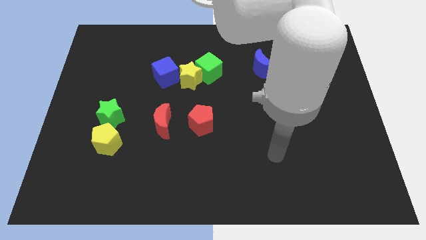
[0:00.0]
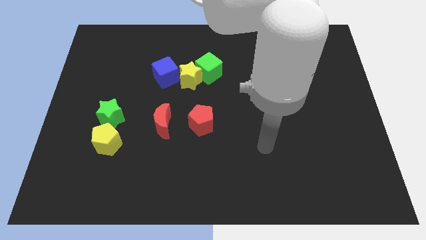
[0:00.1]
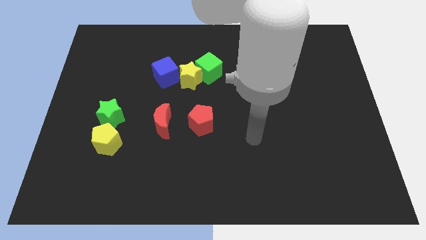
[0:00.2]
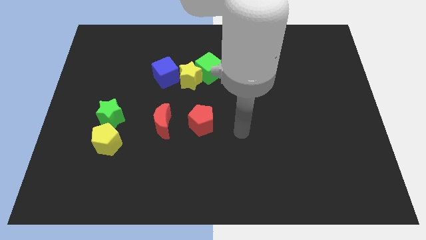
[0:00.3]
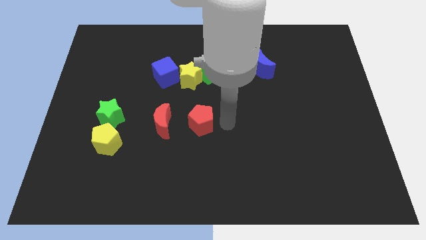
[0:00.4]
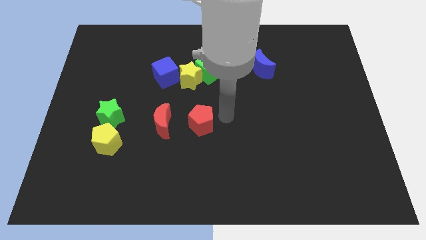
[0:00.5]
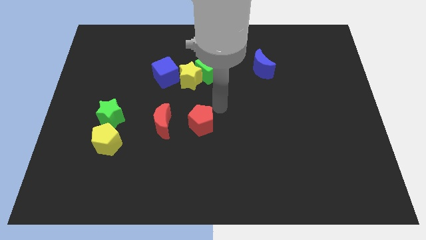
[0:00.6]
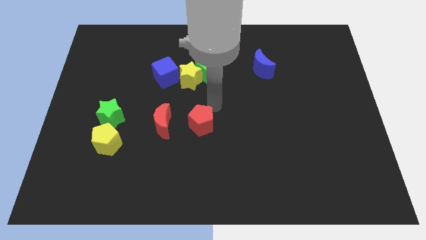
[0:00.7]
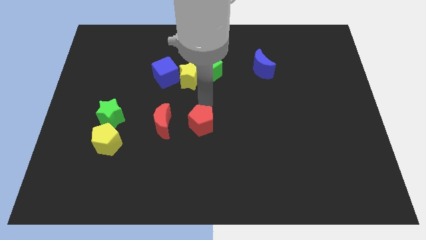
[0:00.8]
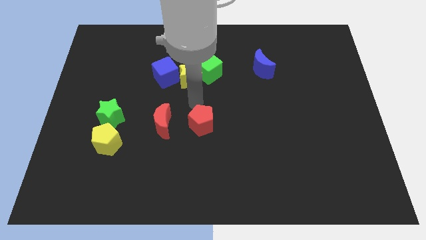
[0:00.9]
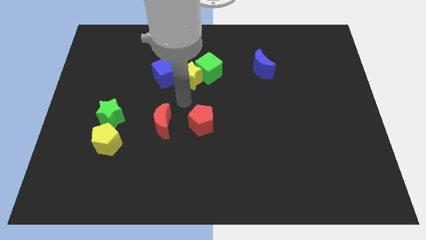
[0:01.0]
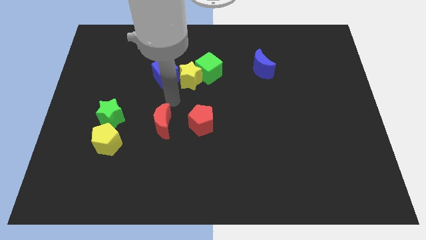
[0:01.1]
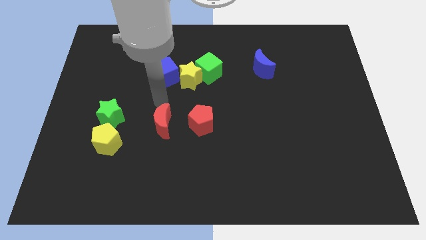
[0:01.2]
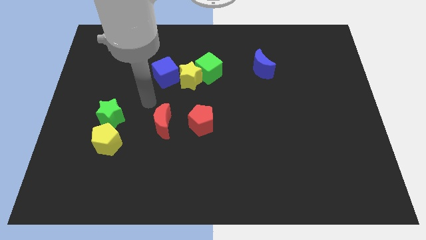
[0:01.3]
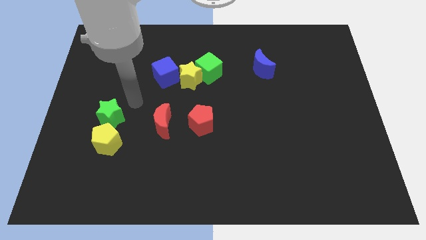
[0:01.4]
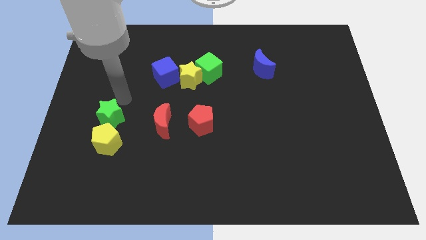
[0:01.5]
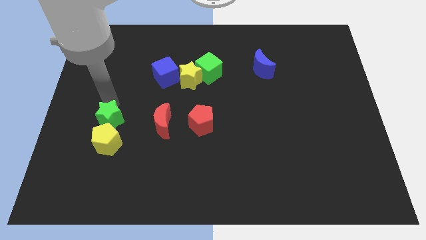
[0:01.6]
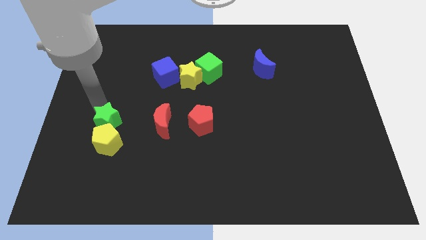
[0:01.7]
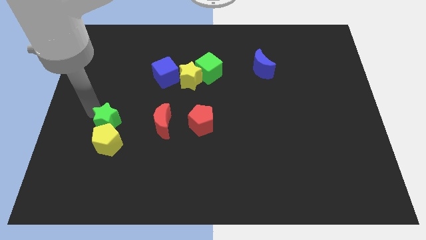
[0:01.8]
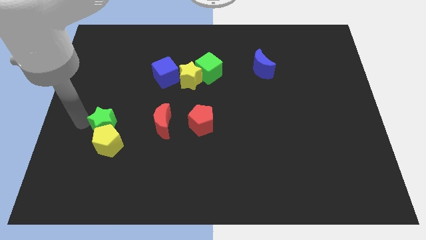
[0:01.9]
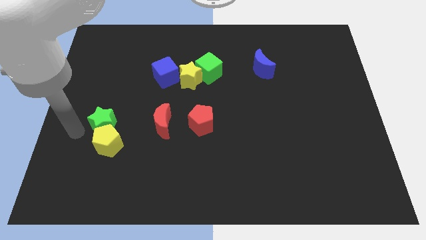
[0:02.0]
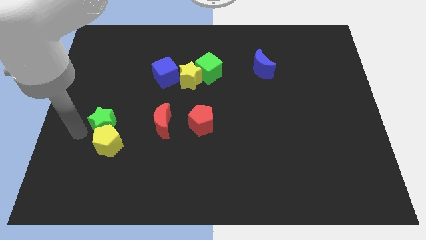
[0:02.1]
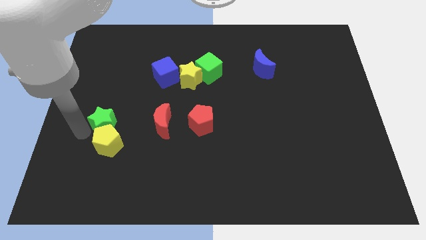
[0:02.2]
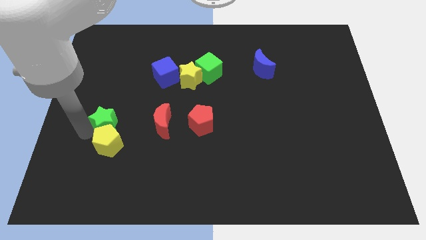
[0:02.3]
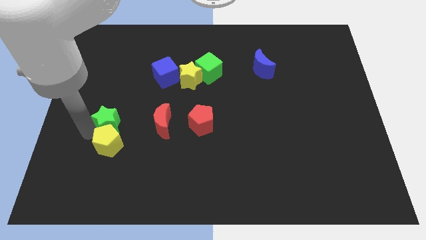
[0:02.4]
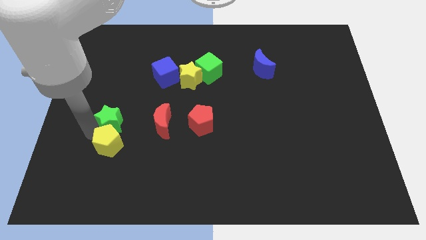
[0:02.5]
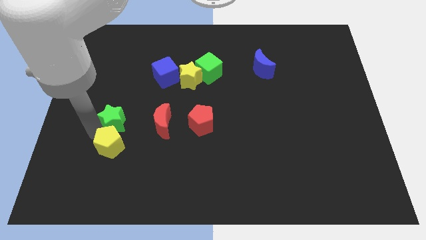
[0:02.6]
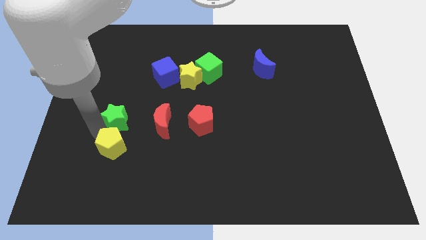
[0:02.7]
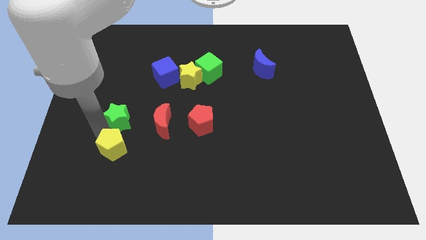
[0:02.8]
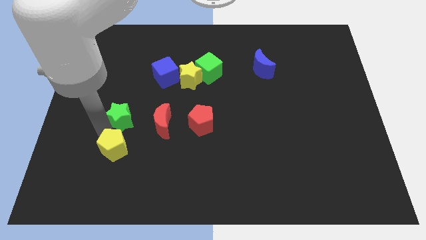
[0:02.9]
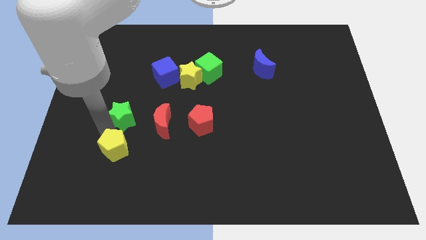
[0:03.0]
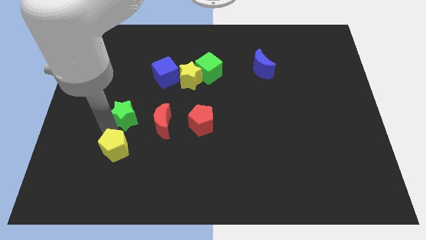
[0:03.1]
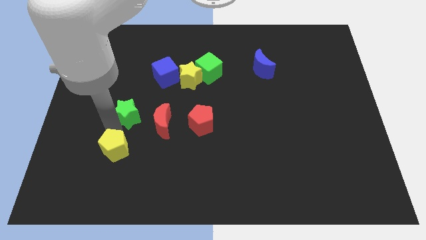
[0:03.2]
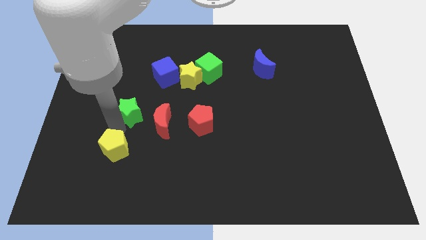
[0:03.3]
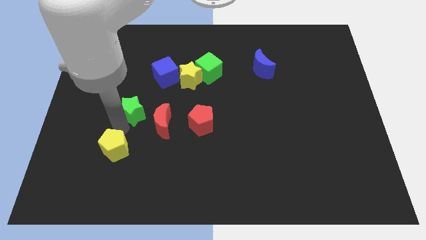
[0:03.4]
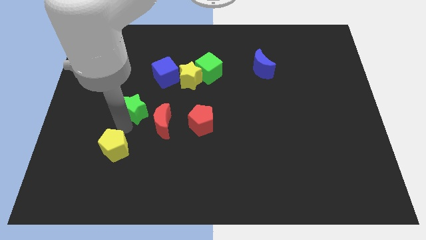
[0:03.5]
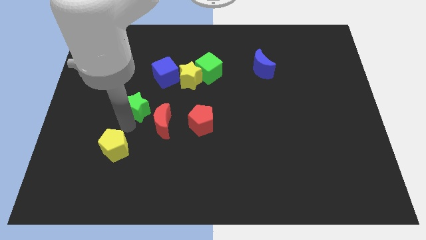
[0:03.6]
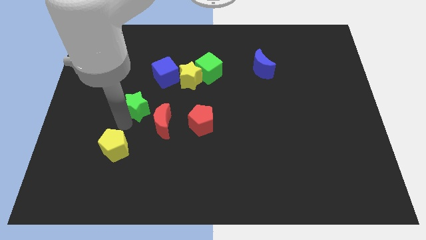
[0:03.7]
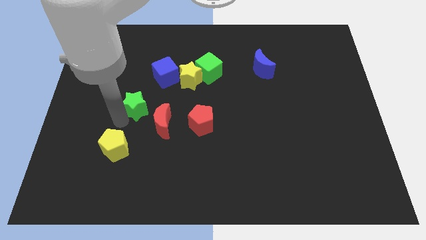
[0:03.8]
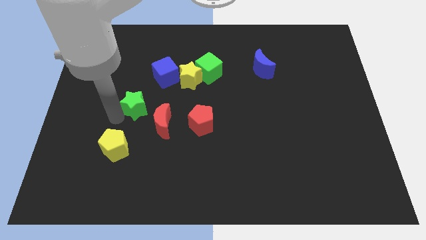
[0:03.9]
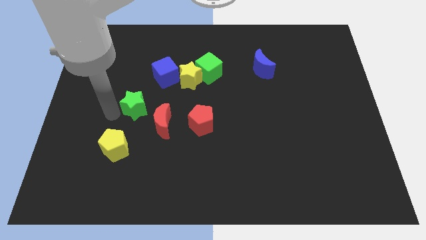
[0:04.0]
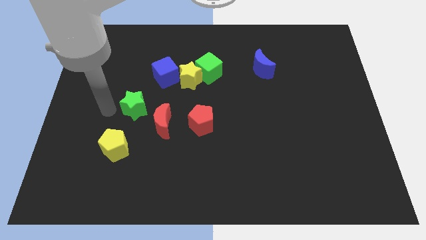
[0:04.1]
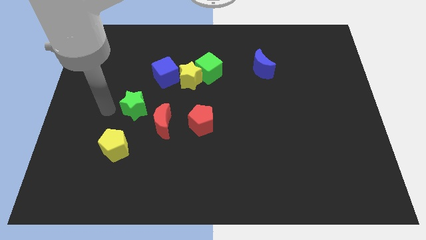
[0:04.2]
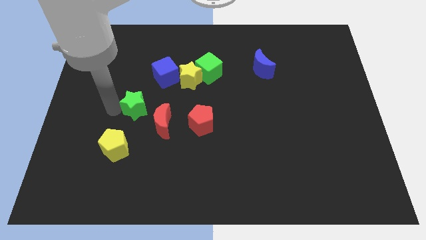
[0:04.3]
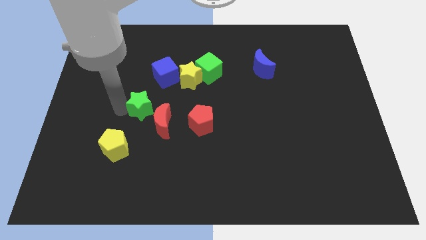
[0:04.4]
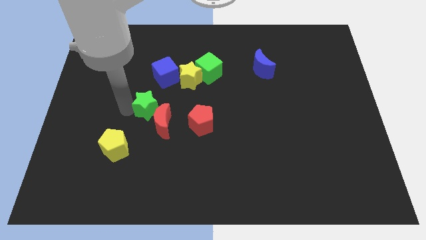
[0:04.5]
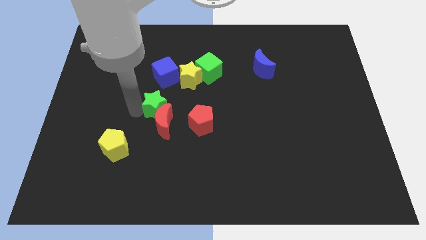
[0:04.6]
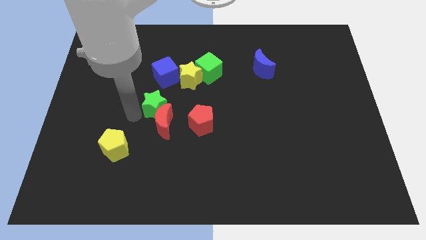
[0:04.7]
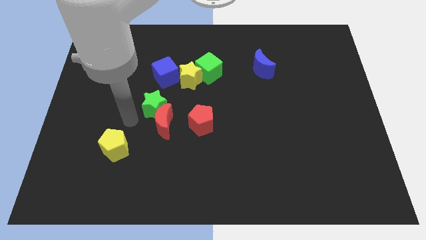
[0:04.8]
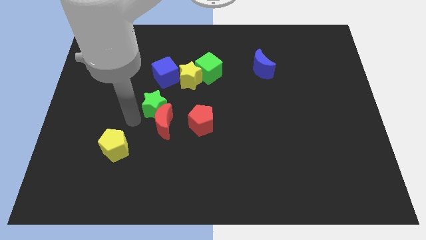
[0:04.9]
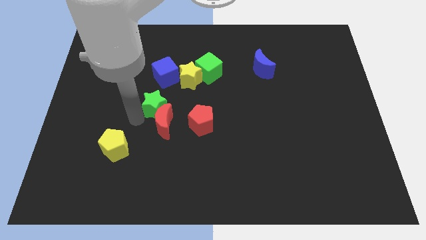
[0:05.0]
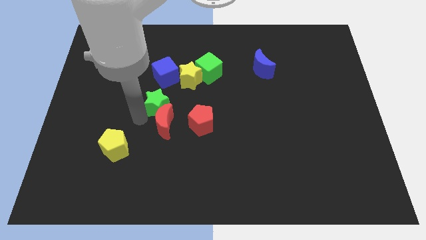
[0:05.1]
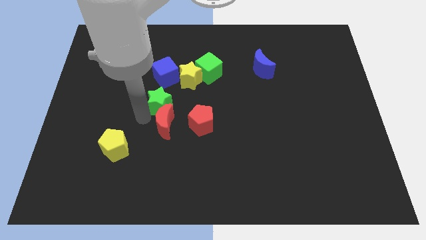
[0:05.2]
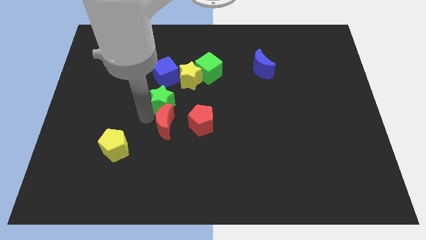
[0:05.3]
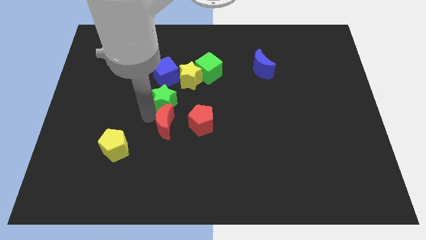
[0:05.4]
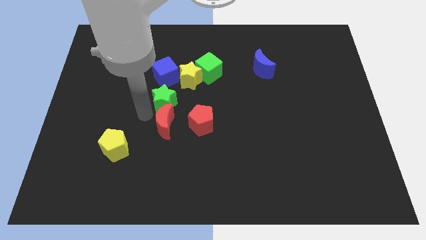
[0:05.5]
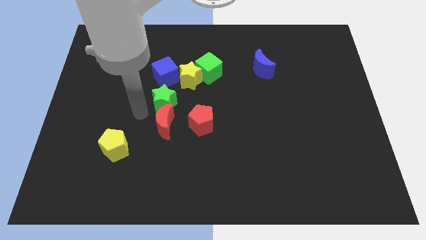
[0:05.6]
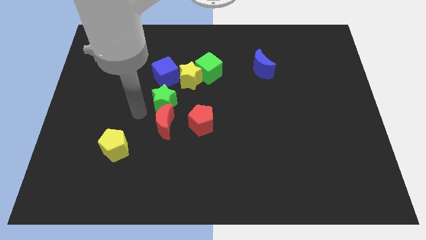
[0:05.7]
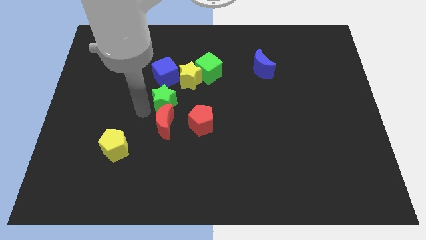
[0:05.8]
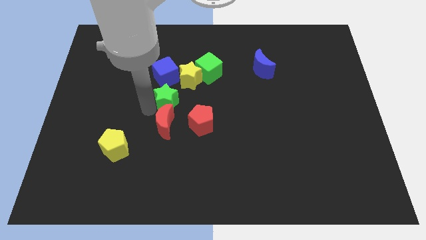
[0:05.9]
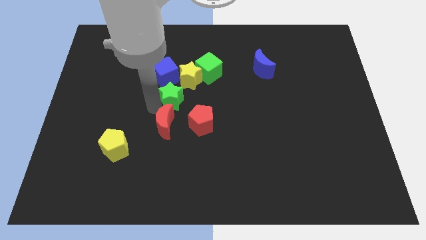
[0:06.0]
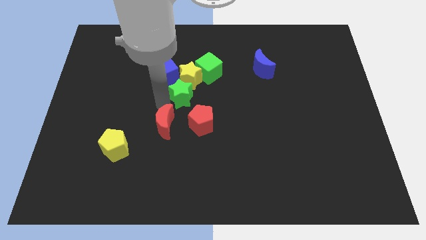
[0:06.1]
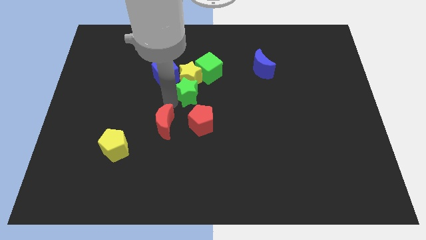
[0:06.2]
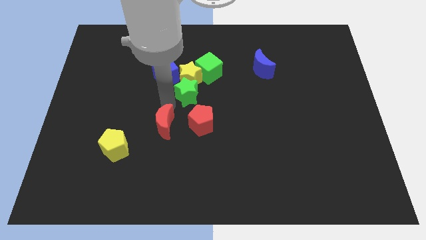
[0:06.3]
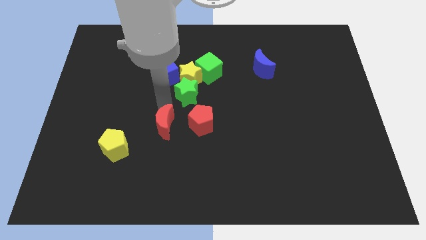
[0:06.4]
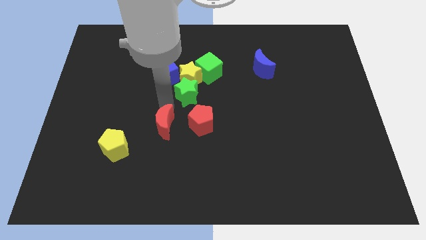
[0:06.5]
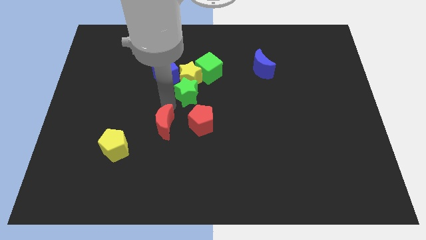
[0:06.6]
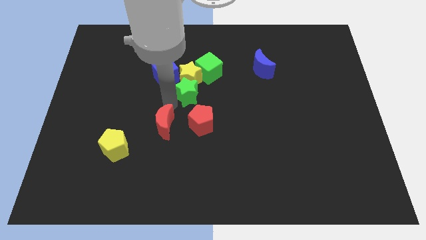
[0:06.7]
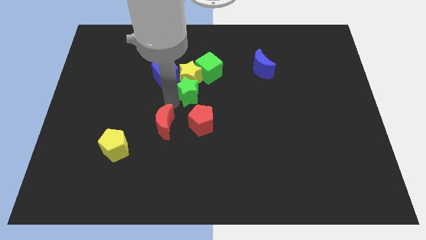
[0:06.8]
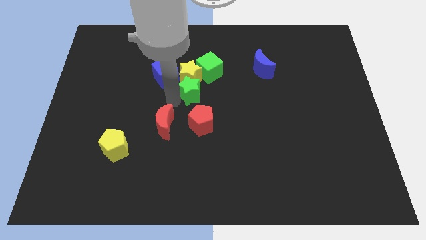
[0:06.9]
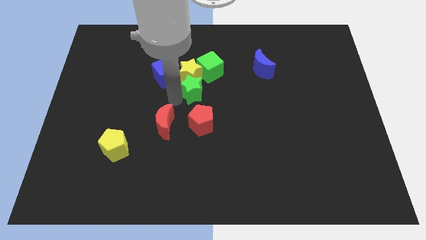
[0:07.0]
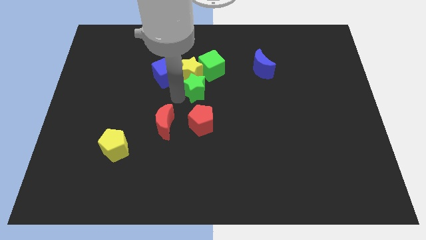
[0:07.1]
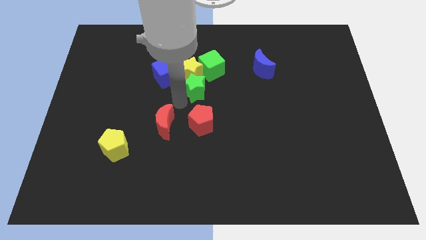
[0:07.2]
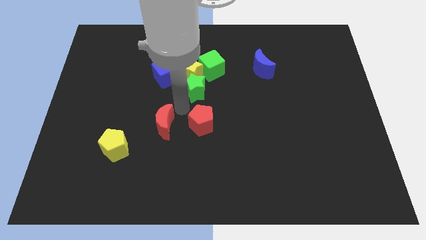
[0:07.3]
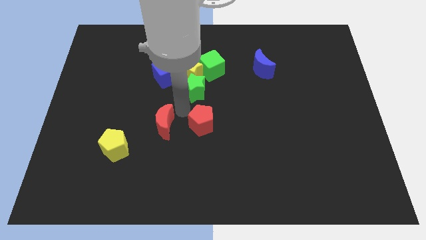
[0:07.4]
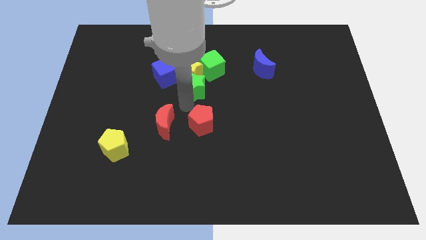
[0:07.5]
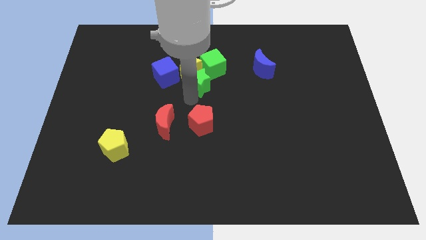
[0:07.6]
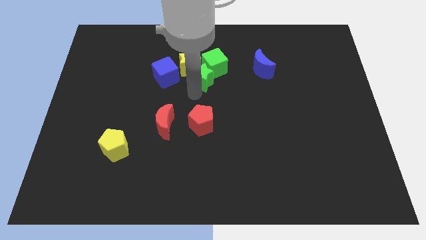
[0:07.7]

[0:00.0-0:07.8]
move the green star next to the green cube

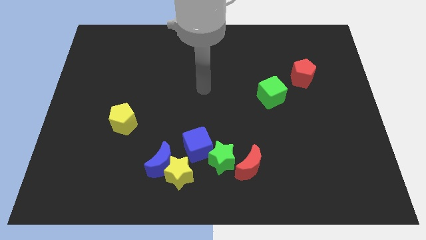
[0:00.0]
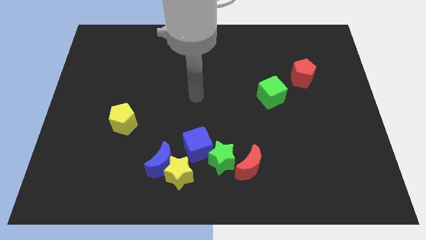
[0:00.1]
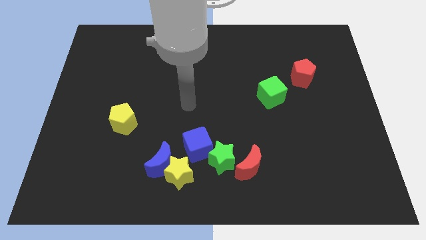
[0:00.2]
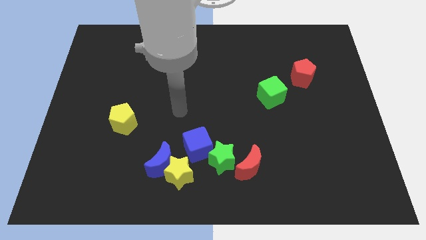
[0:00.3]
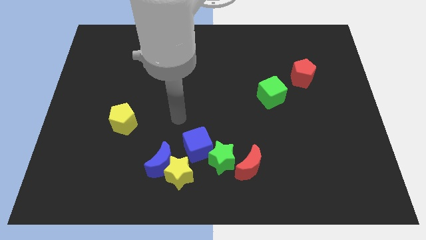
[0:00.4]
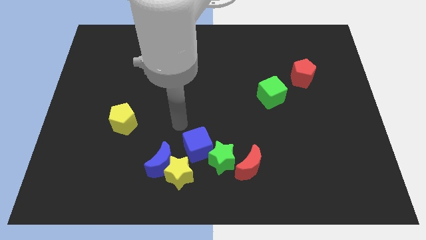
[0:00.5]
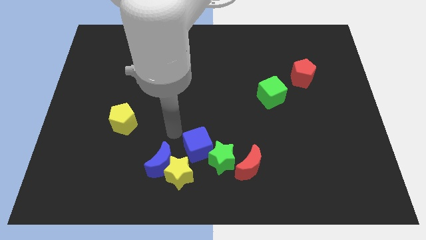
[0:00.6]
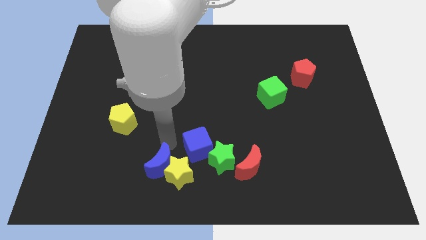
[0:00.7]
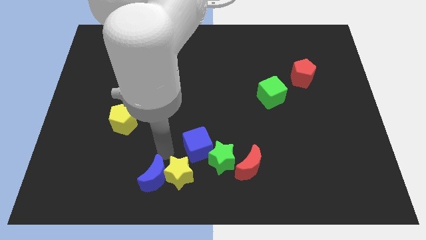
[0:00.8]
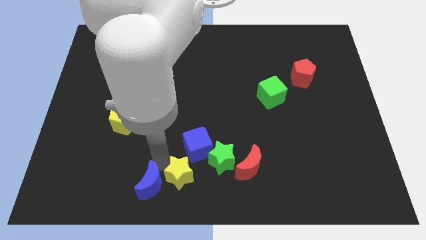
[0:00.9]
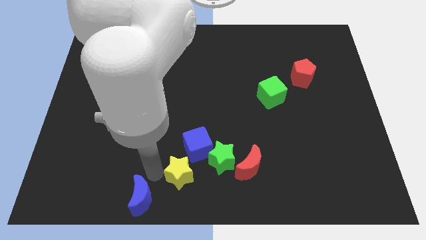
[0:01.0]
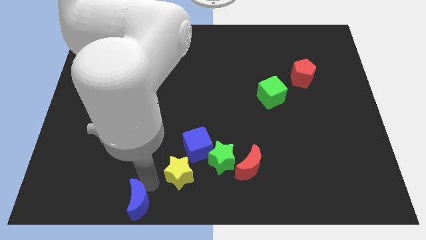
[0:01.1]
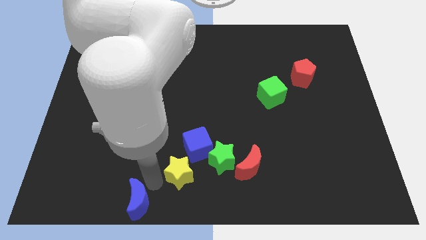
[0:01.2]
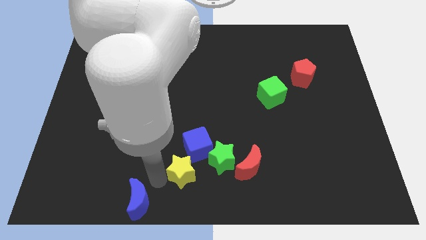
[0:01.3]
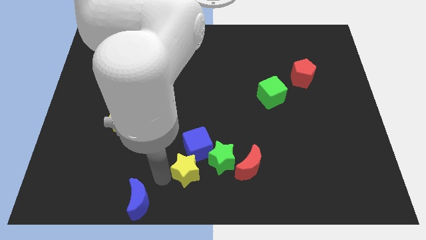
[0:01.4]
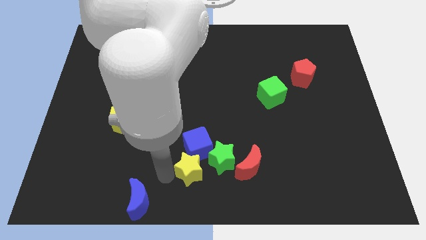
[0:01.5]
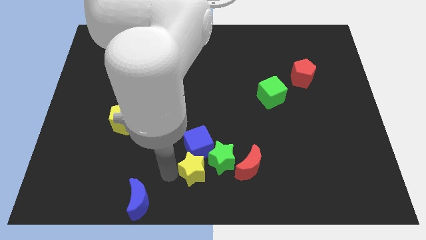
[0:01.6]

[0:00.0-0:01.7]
put the yellow star towards the green star
